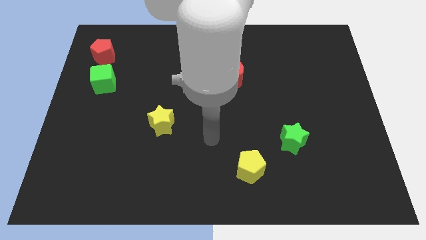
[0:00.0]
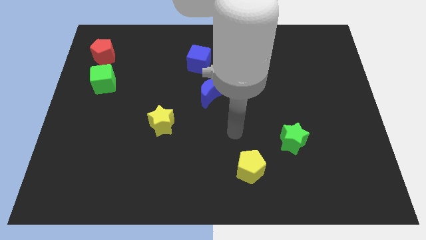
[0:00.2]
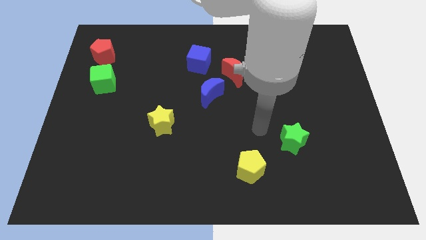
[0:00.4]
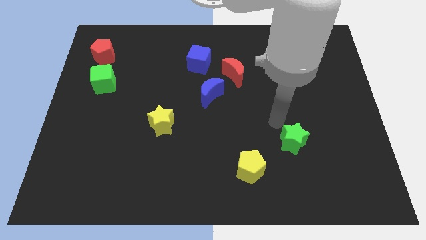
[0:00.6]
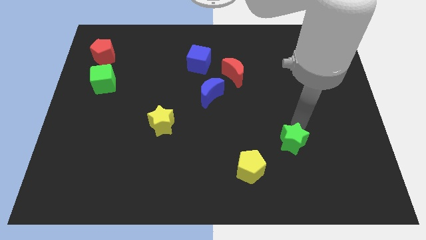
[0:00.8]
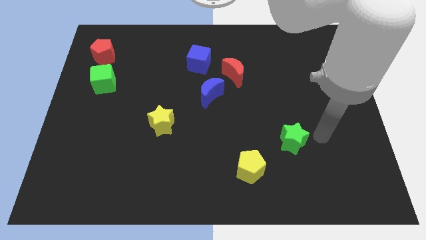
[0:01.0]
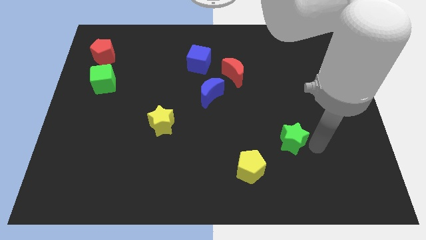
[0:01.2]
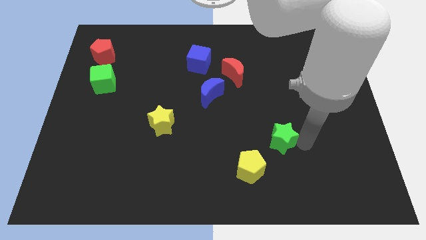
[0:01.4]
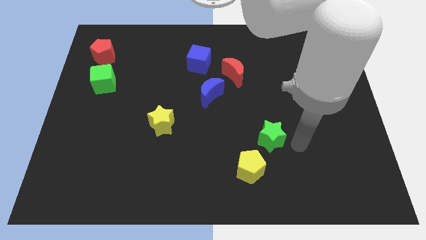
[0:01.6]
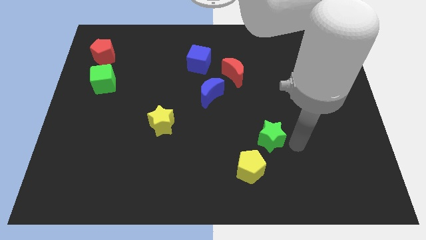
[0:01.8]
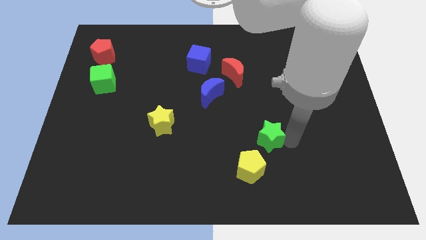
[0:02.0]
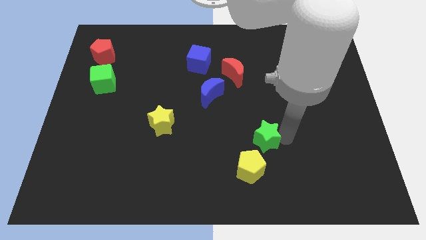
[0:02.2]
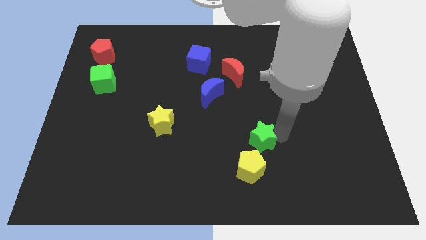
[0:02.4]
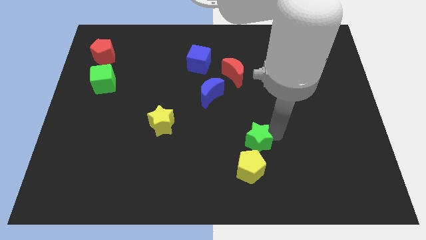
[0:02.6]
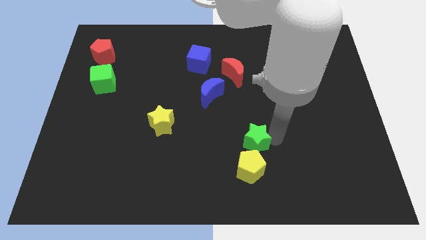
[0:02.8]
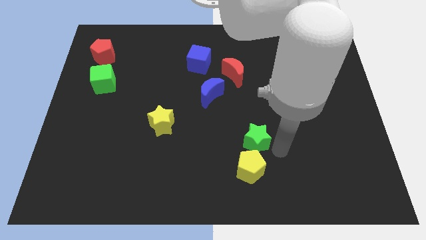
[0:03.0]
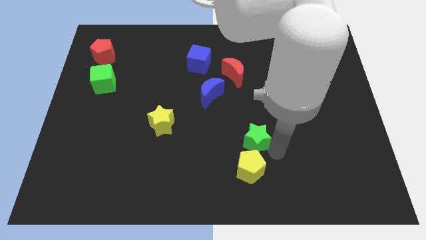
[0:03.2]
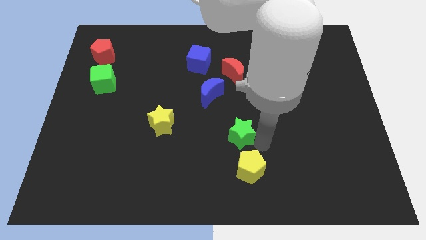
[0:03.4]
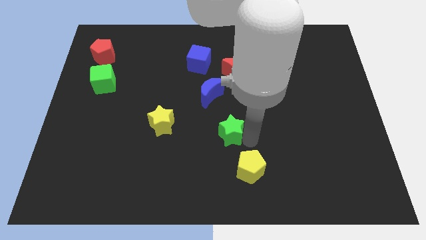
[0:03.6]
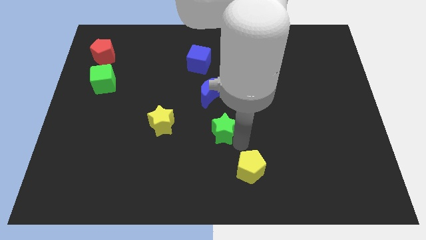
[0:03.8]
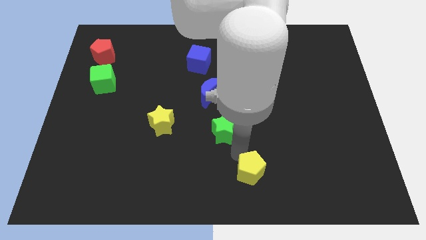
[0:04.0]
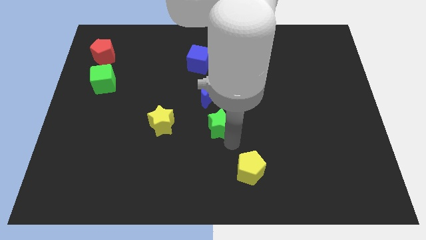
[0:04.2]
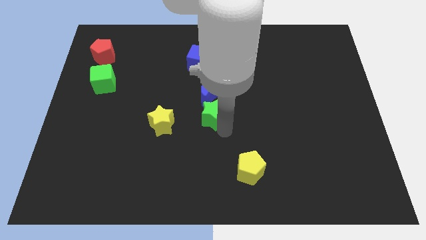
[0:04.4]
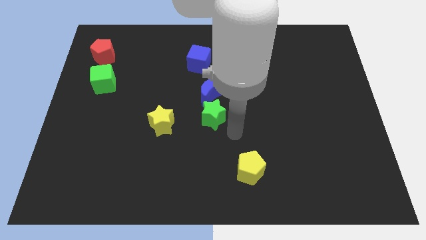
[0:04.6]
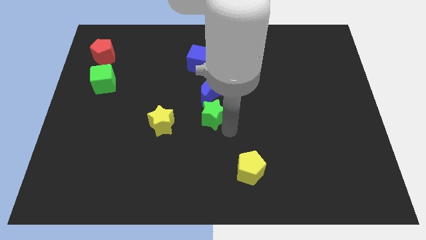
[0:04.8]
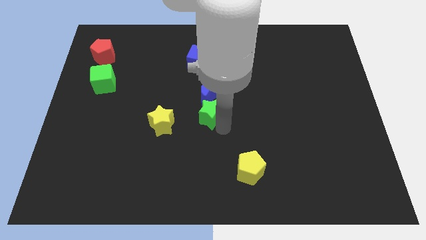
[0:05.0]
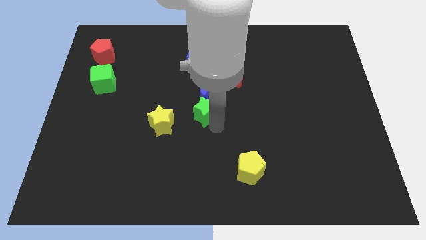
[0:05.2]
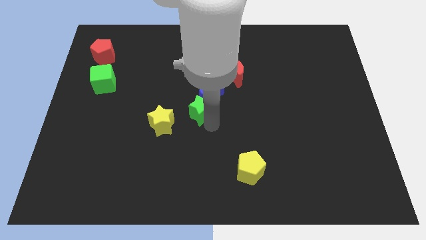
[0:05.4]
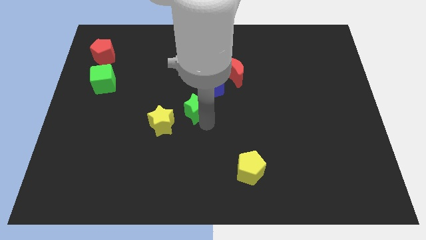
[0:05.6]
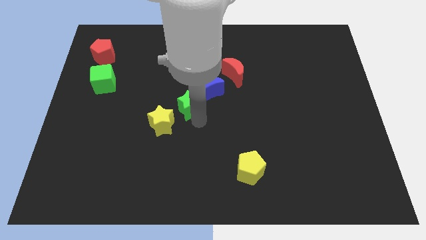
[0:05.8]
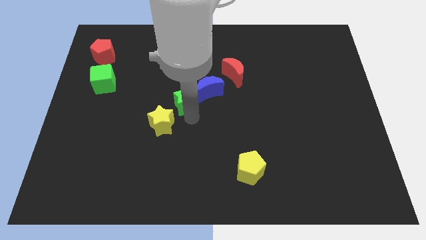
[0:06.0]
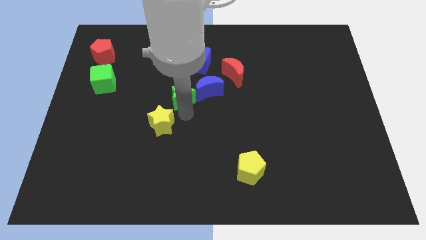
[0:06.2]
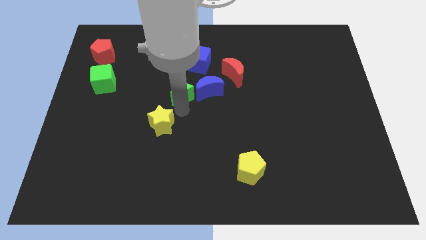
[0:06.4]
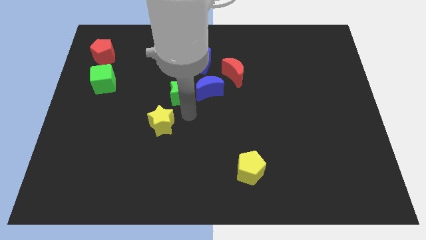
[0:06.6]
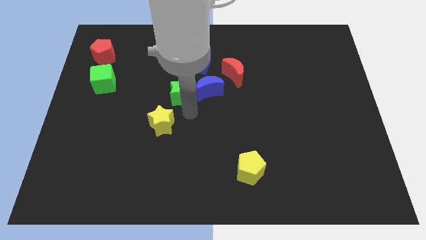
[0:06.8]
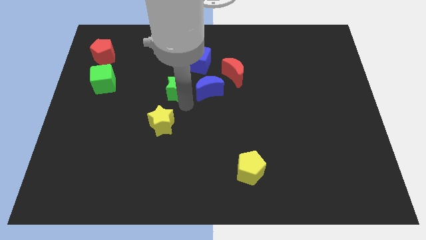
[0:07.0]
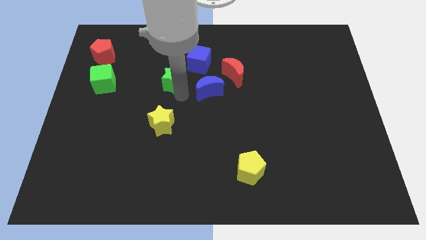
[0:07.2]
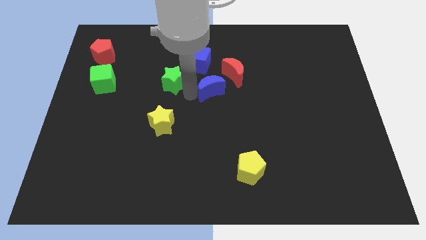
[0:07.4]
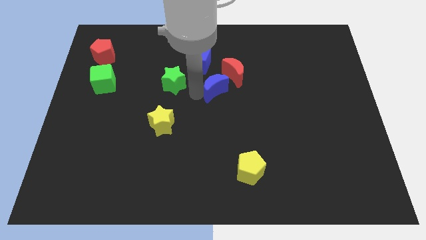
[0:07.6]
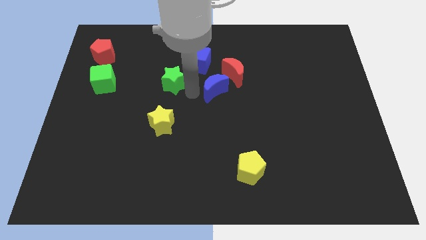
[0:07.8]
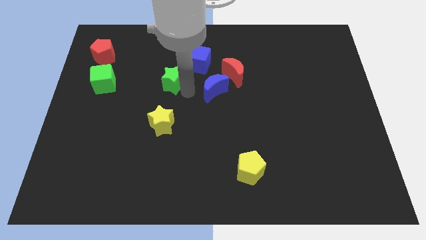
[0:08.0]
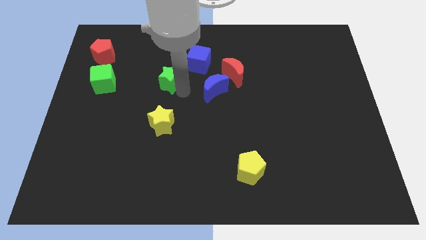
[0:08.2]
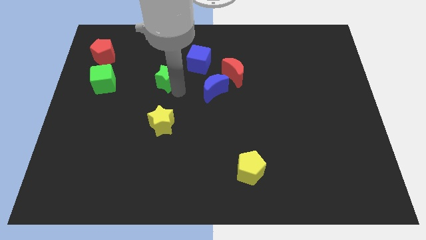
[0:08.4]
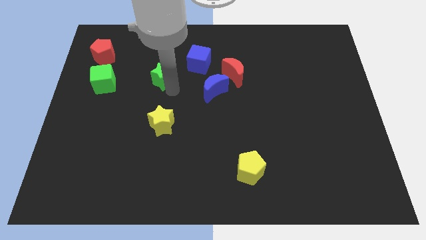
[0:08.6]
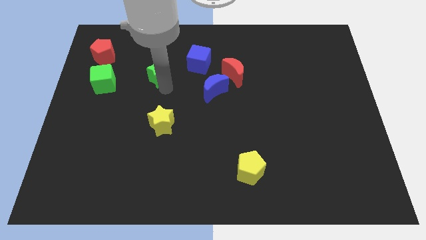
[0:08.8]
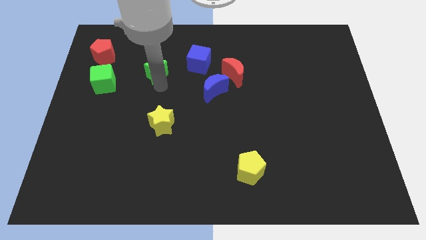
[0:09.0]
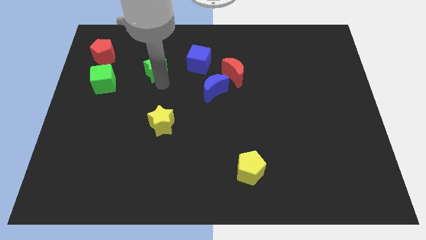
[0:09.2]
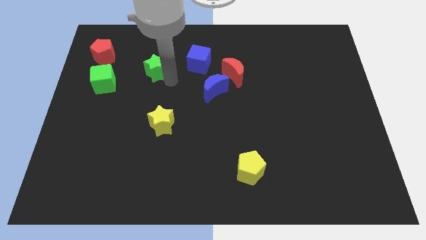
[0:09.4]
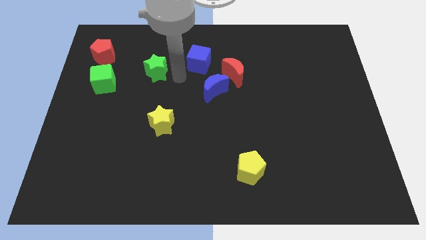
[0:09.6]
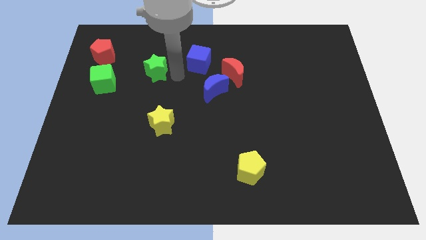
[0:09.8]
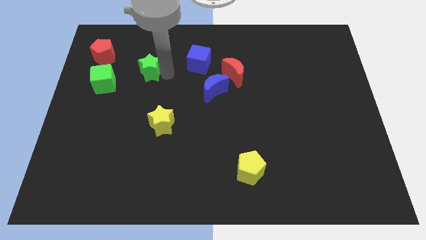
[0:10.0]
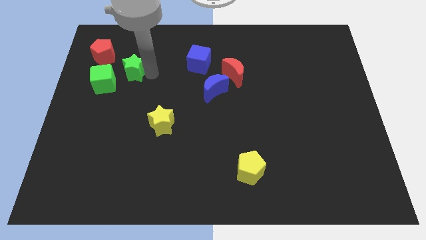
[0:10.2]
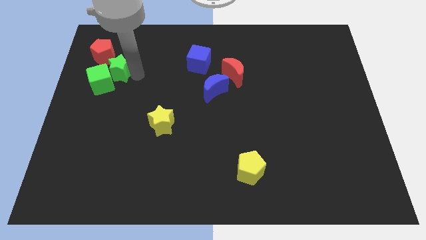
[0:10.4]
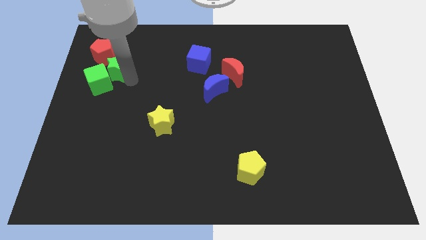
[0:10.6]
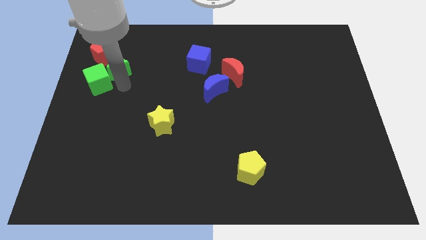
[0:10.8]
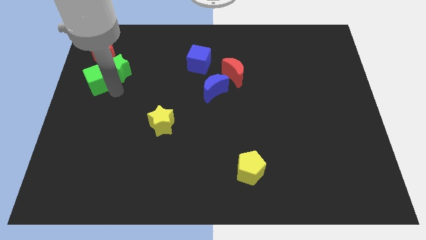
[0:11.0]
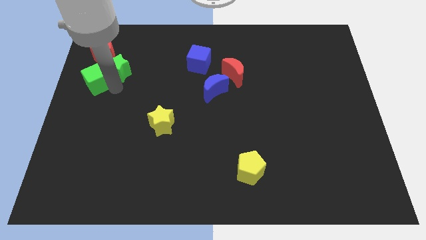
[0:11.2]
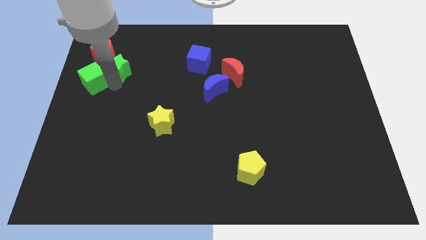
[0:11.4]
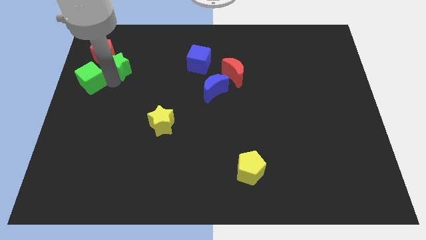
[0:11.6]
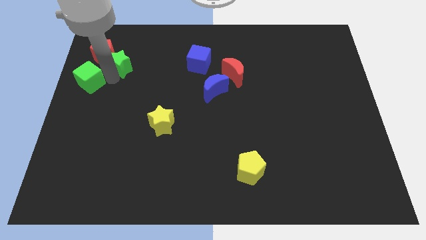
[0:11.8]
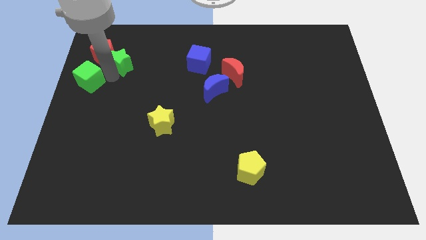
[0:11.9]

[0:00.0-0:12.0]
put the green star to the red pentagon

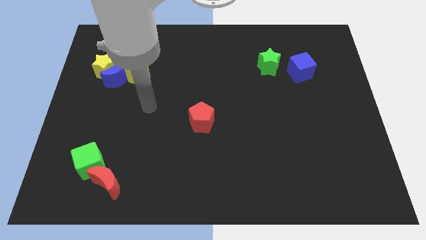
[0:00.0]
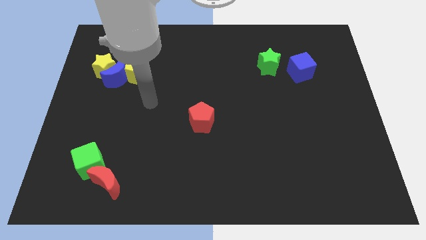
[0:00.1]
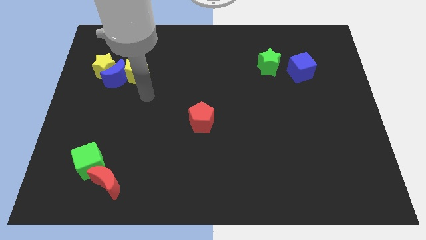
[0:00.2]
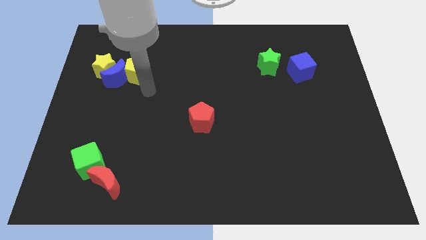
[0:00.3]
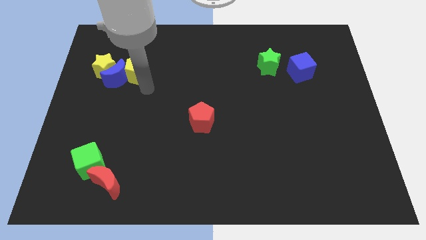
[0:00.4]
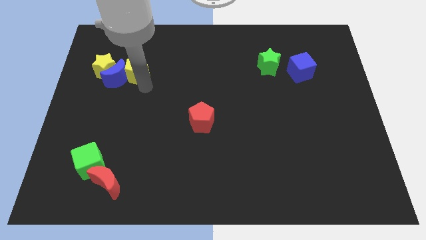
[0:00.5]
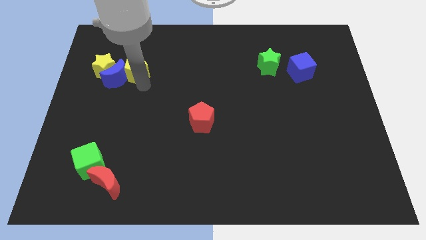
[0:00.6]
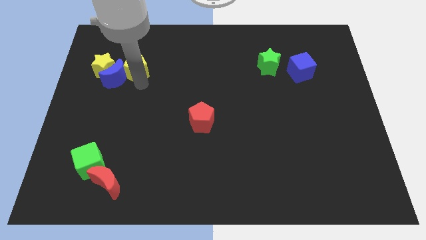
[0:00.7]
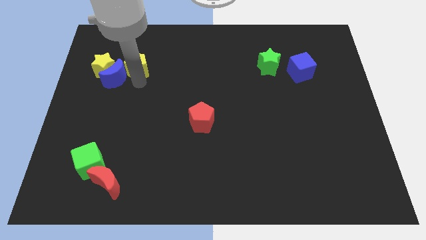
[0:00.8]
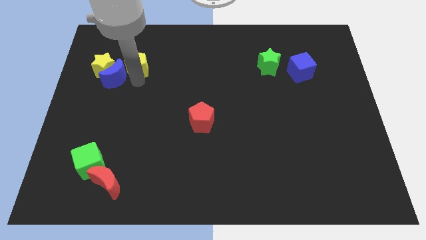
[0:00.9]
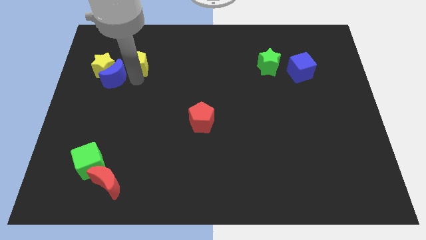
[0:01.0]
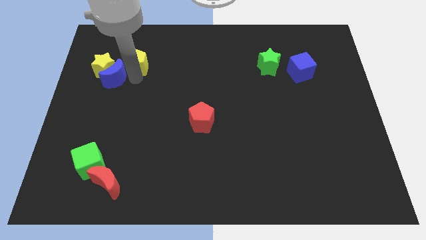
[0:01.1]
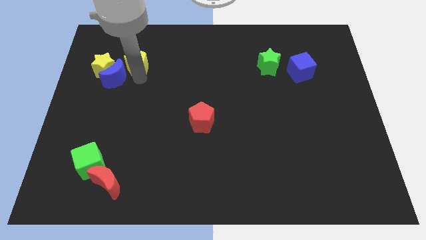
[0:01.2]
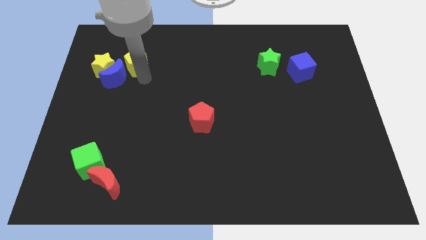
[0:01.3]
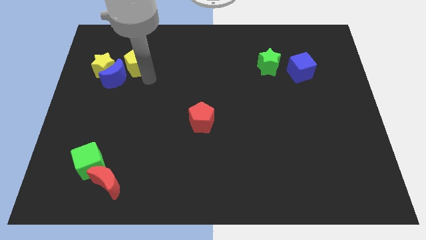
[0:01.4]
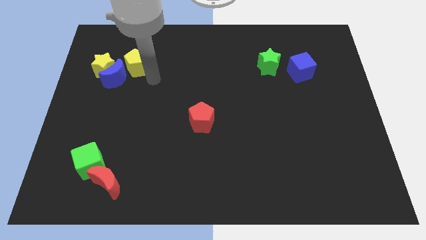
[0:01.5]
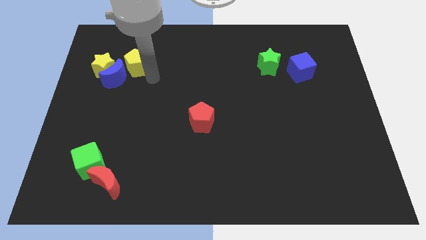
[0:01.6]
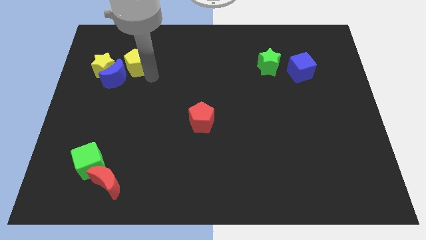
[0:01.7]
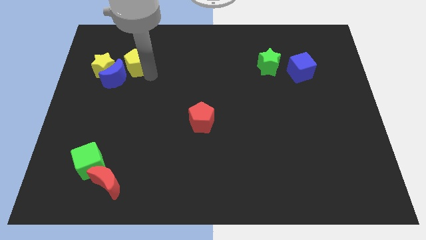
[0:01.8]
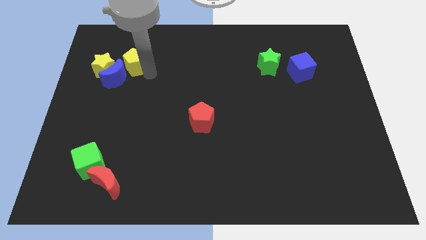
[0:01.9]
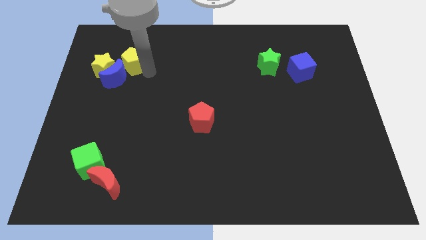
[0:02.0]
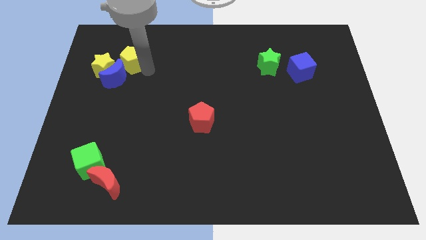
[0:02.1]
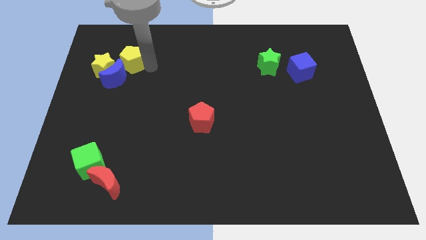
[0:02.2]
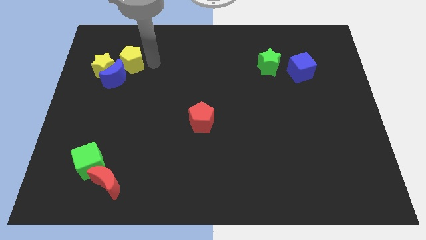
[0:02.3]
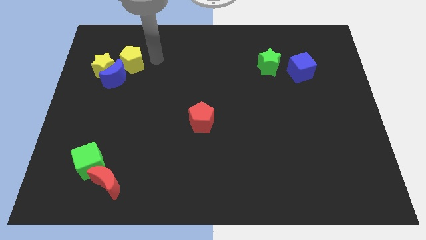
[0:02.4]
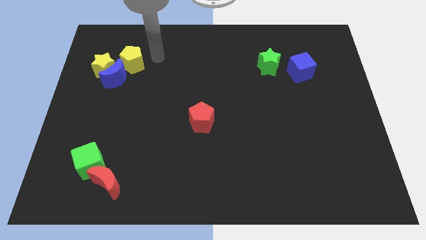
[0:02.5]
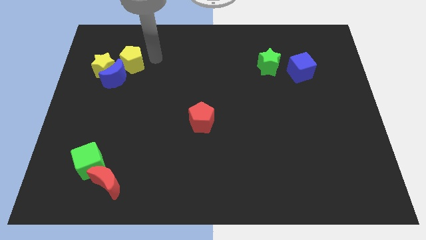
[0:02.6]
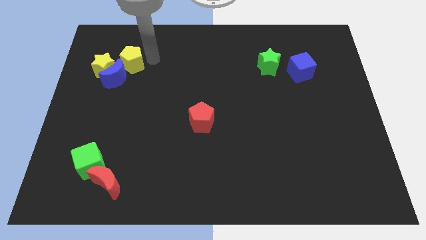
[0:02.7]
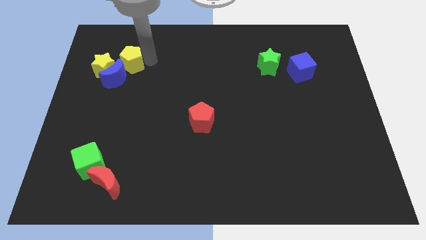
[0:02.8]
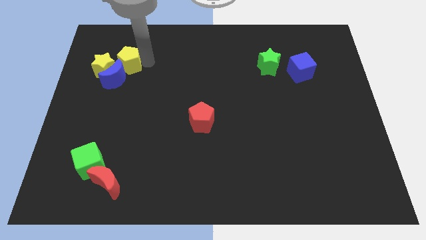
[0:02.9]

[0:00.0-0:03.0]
put the yellow pentagon to the yellow star
